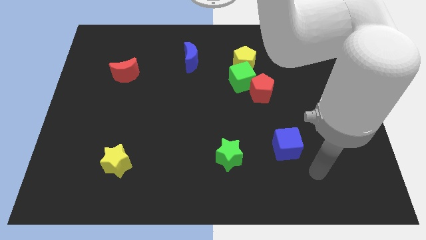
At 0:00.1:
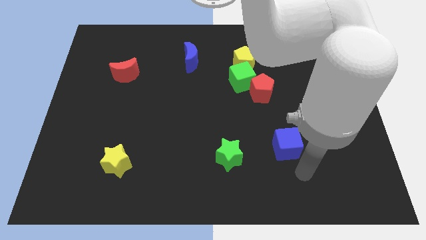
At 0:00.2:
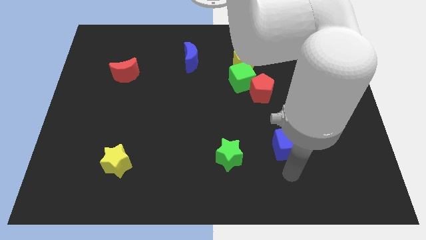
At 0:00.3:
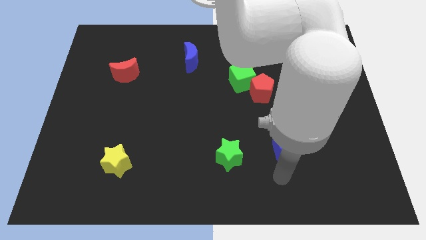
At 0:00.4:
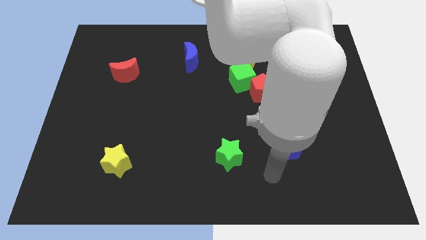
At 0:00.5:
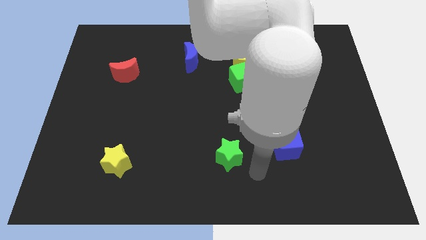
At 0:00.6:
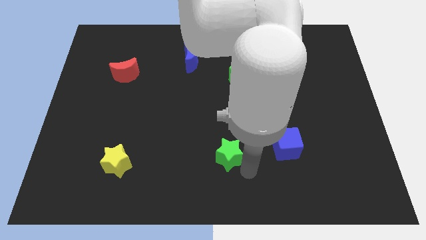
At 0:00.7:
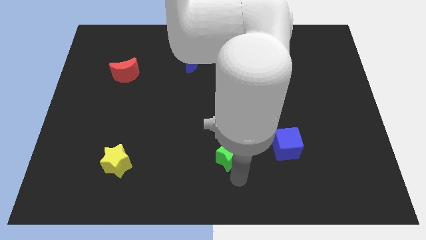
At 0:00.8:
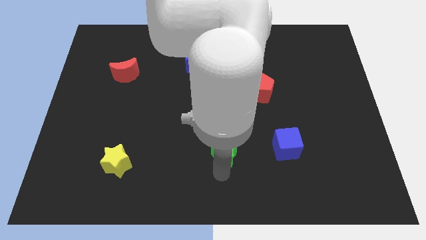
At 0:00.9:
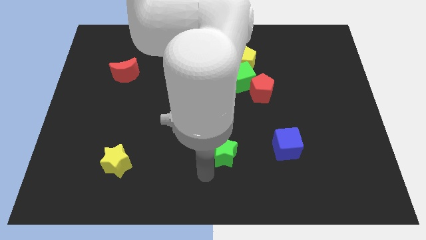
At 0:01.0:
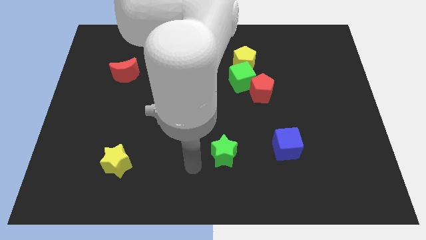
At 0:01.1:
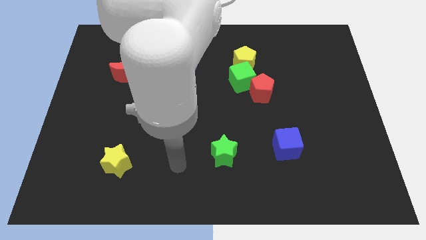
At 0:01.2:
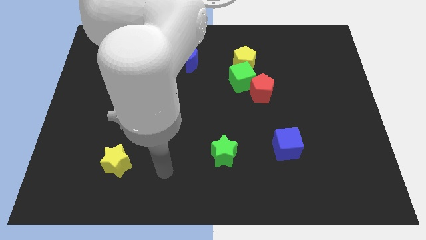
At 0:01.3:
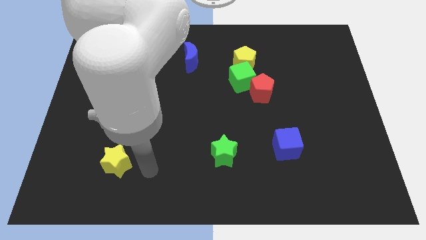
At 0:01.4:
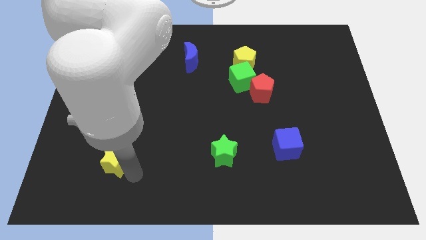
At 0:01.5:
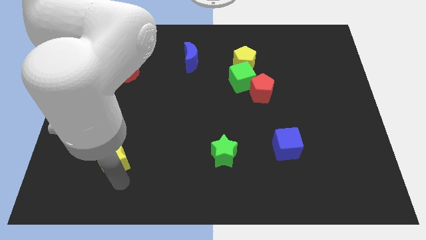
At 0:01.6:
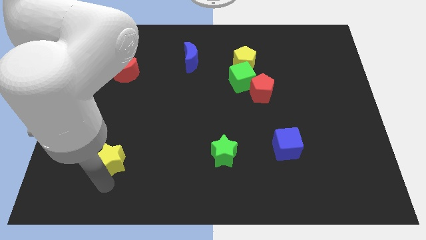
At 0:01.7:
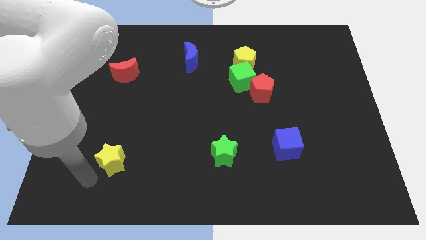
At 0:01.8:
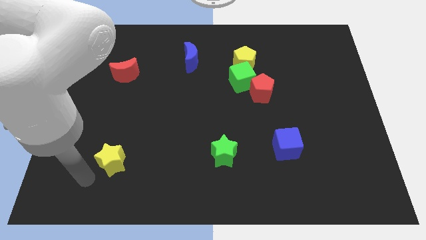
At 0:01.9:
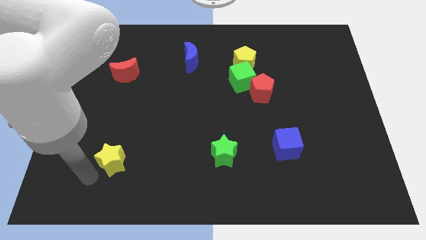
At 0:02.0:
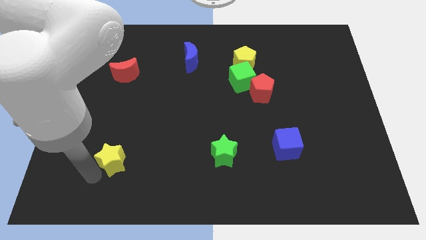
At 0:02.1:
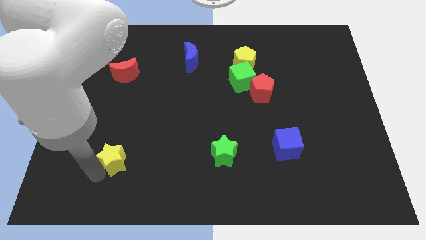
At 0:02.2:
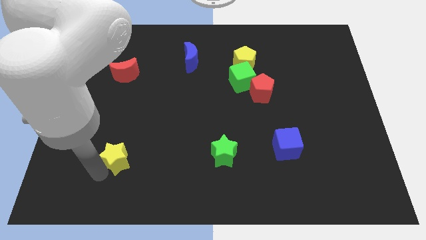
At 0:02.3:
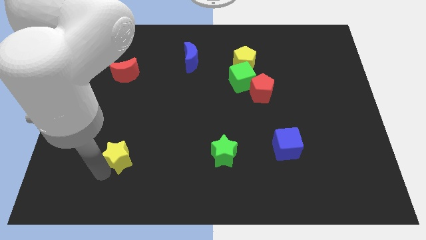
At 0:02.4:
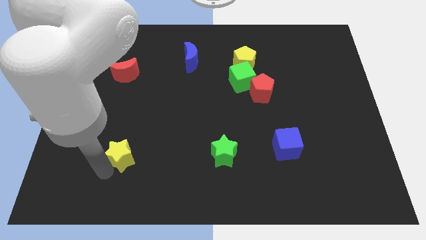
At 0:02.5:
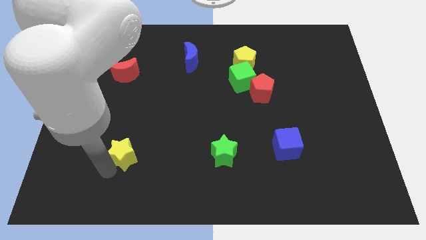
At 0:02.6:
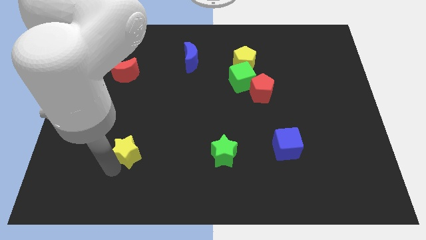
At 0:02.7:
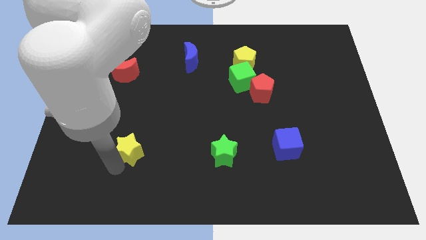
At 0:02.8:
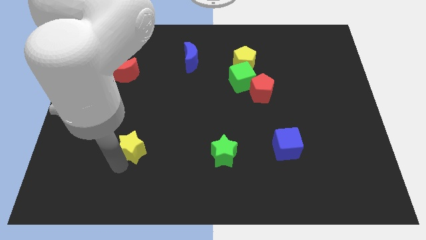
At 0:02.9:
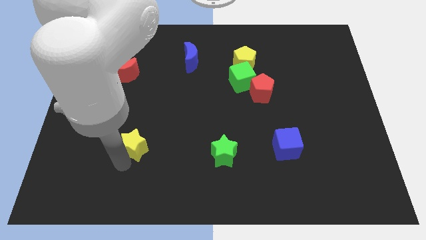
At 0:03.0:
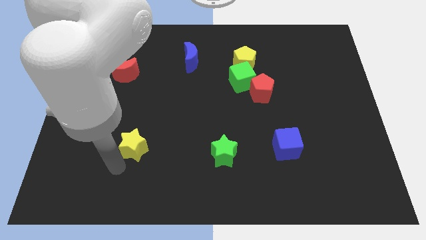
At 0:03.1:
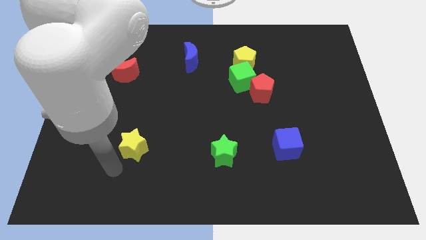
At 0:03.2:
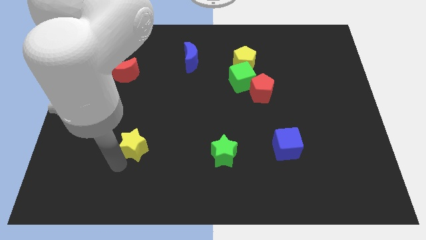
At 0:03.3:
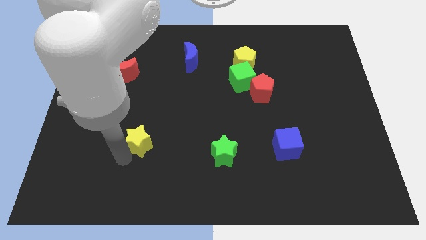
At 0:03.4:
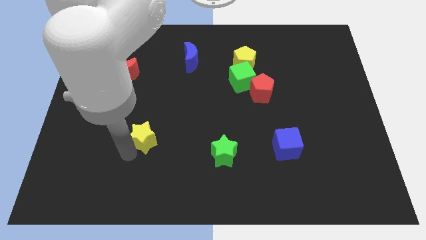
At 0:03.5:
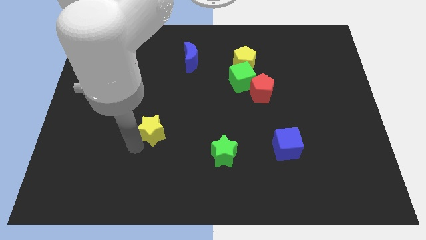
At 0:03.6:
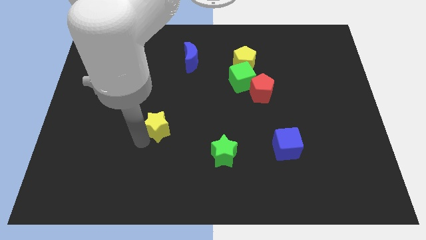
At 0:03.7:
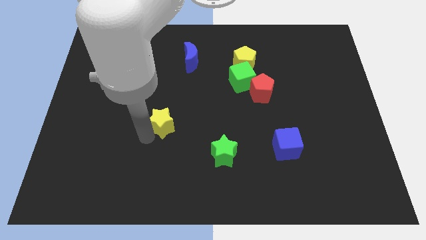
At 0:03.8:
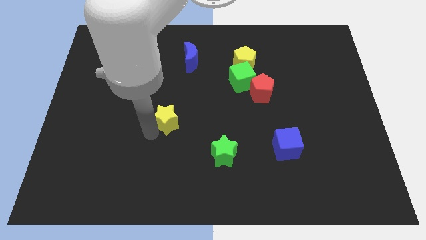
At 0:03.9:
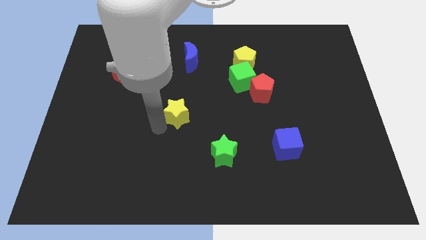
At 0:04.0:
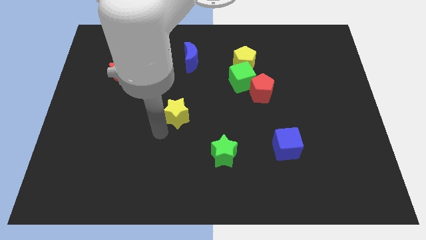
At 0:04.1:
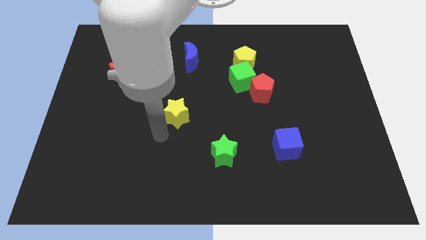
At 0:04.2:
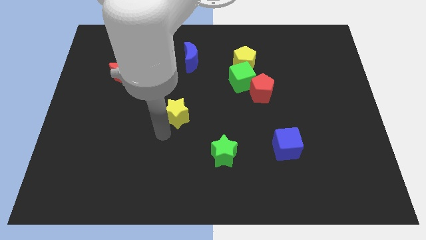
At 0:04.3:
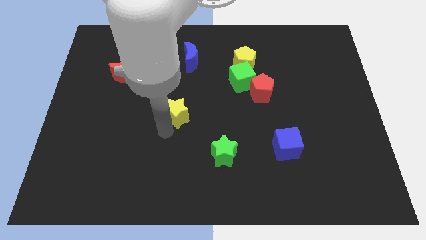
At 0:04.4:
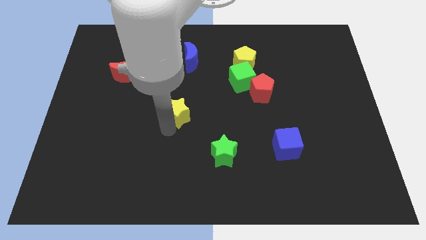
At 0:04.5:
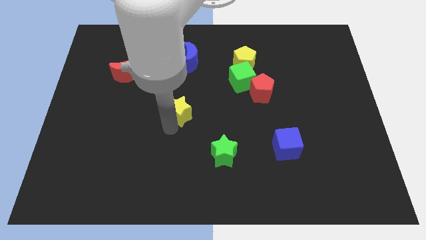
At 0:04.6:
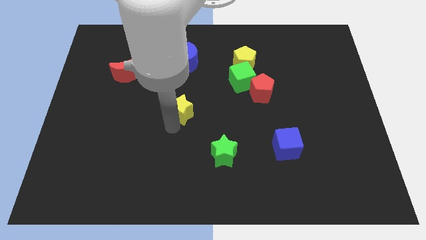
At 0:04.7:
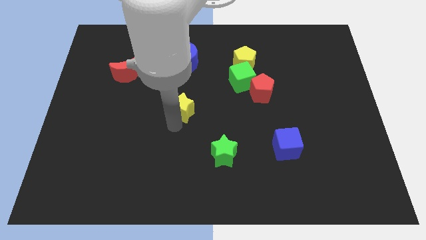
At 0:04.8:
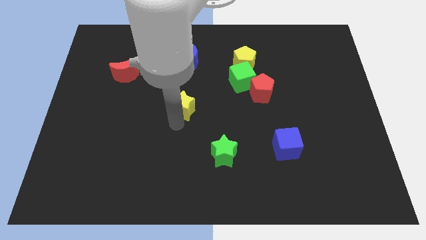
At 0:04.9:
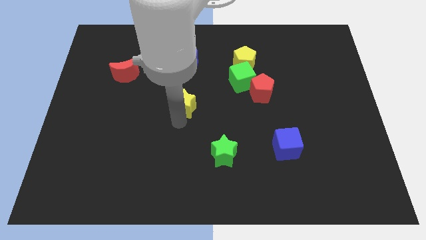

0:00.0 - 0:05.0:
slide the yellow star upwards and to the right diagonally

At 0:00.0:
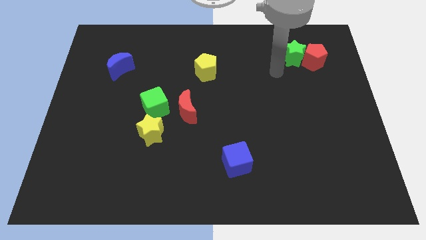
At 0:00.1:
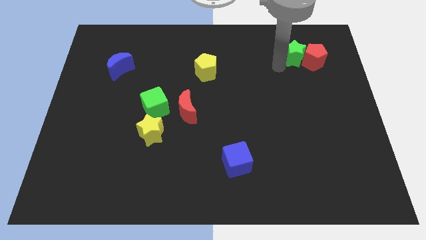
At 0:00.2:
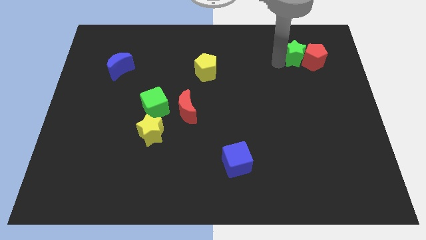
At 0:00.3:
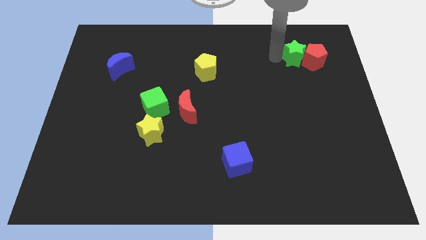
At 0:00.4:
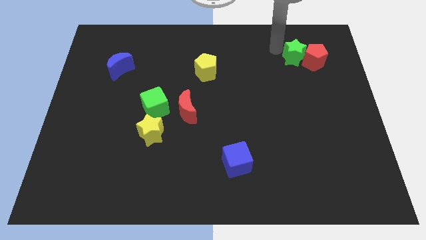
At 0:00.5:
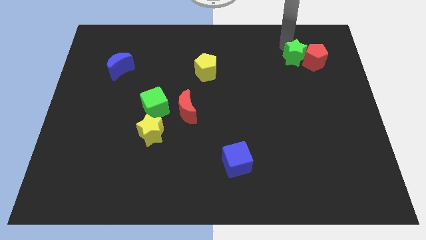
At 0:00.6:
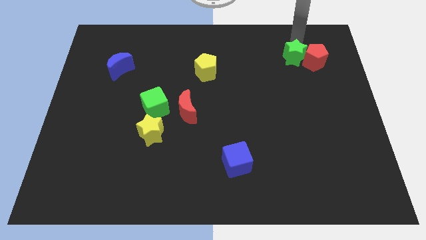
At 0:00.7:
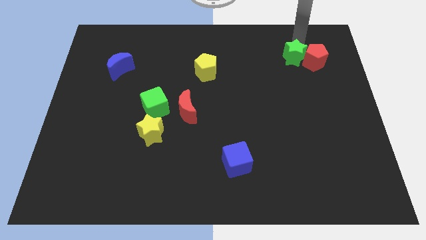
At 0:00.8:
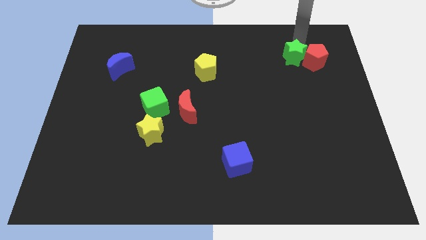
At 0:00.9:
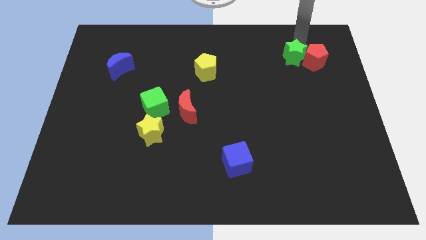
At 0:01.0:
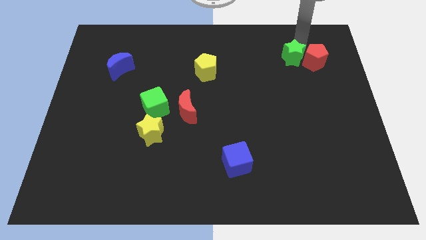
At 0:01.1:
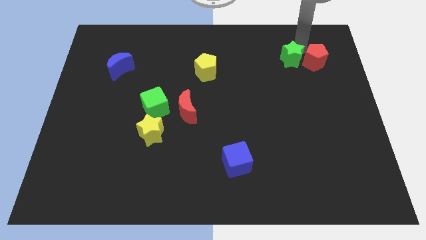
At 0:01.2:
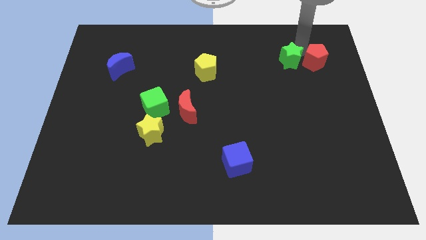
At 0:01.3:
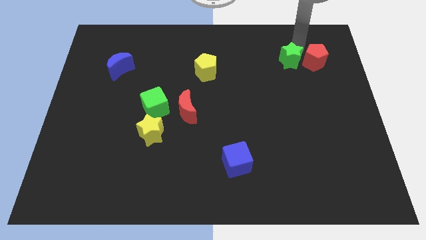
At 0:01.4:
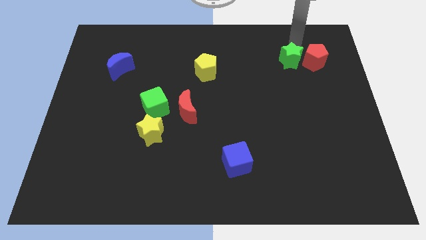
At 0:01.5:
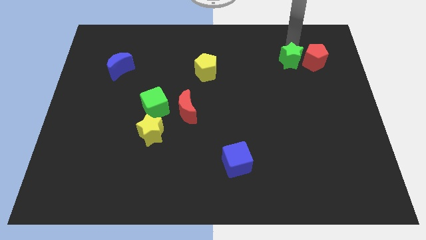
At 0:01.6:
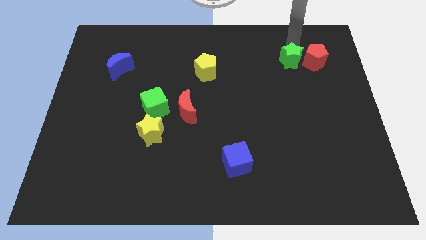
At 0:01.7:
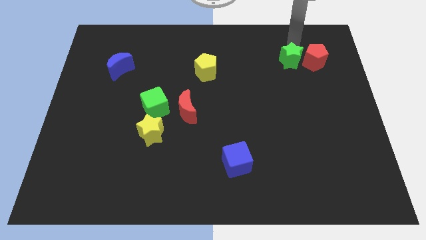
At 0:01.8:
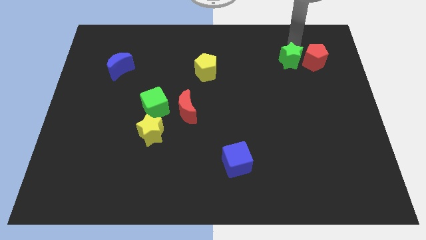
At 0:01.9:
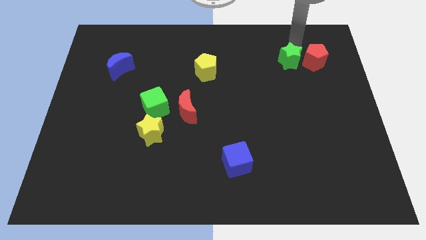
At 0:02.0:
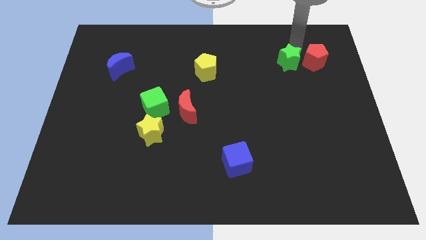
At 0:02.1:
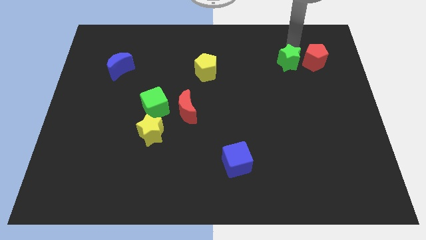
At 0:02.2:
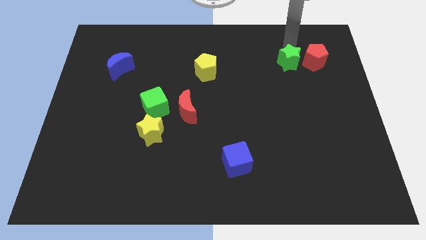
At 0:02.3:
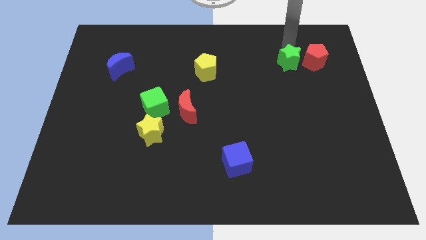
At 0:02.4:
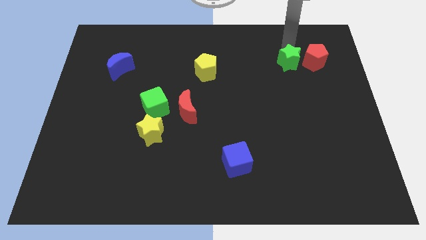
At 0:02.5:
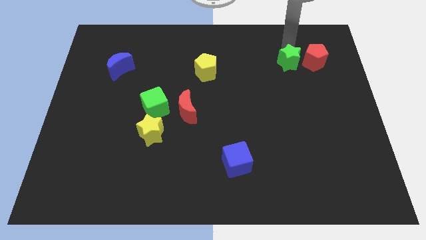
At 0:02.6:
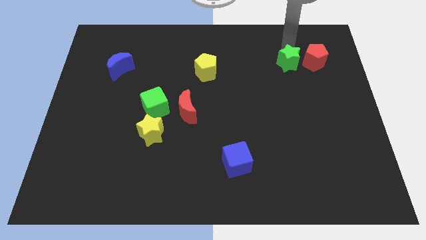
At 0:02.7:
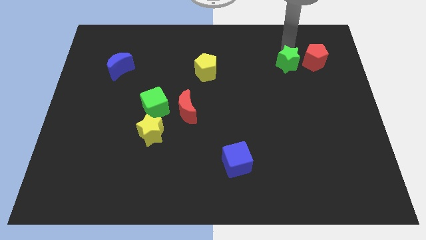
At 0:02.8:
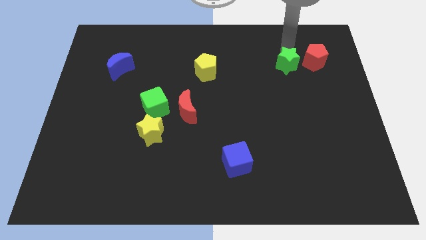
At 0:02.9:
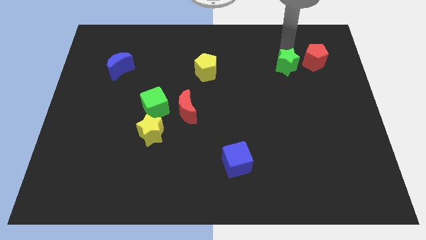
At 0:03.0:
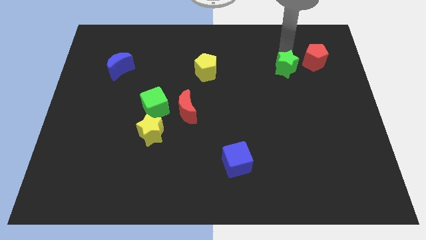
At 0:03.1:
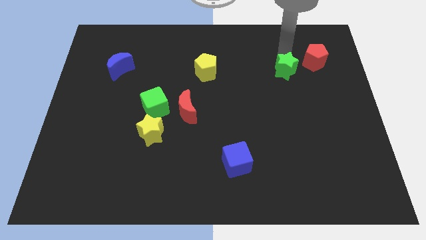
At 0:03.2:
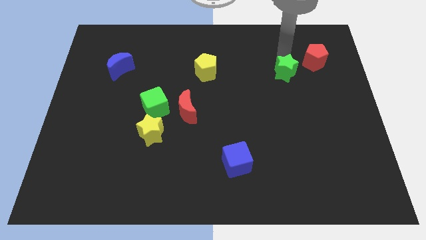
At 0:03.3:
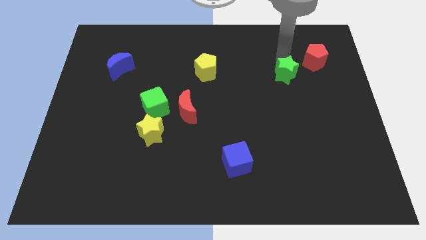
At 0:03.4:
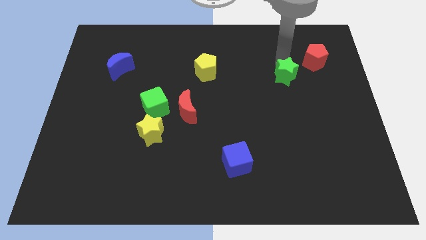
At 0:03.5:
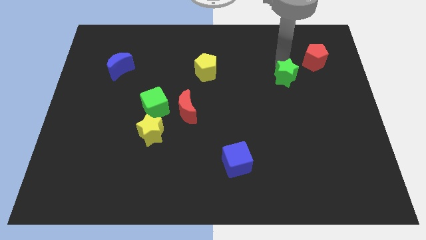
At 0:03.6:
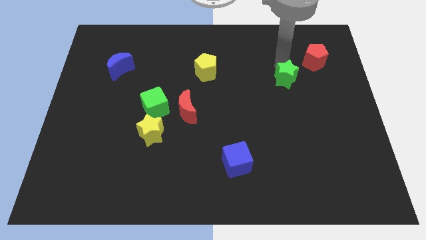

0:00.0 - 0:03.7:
slightly move the green star downwards
